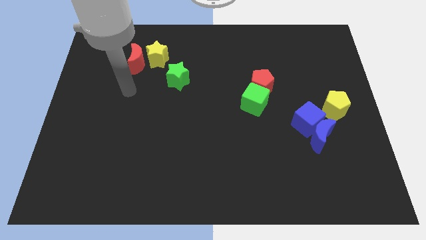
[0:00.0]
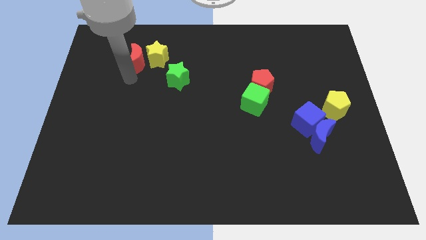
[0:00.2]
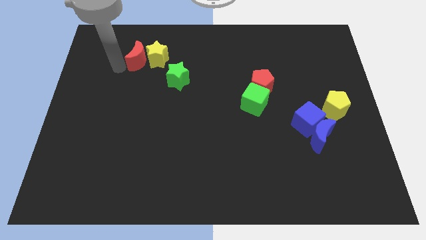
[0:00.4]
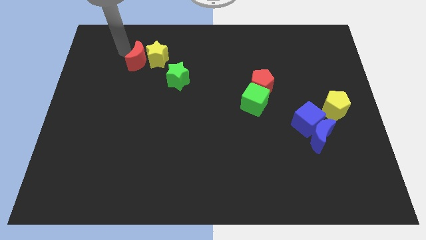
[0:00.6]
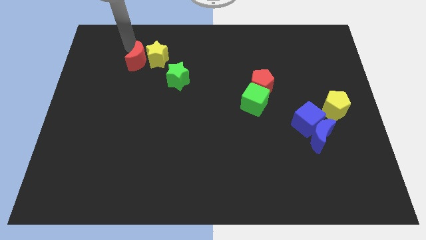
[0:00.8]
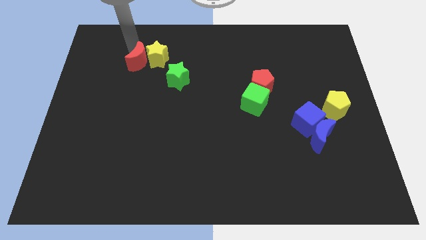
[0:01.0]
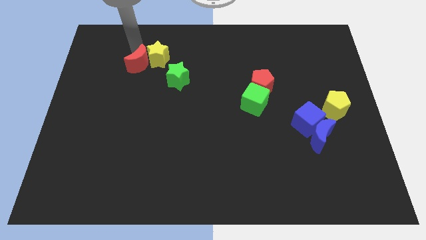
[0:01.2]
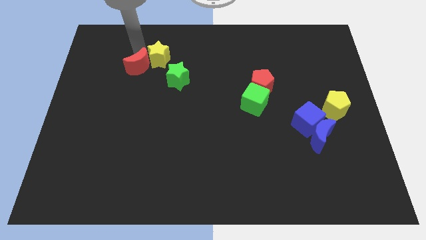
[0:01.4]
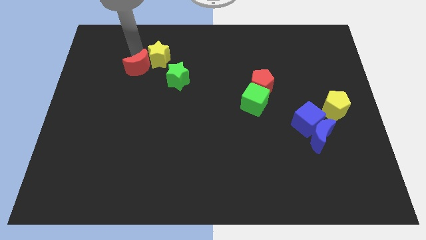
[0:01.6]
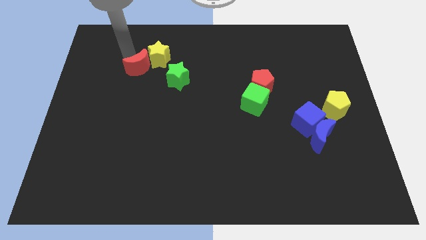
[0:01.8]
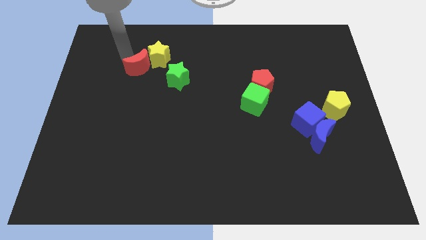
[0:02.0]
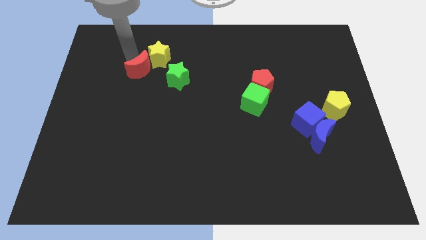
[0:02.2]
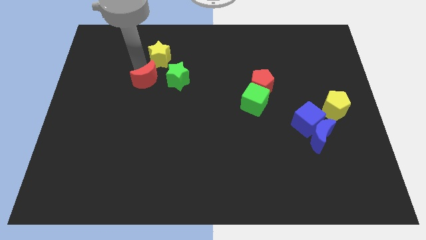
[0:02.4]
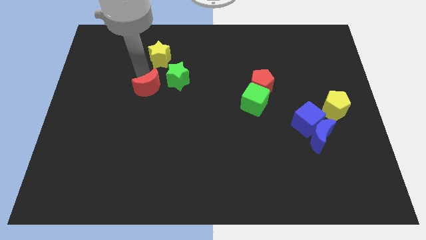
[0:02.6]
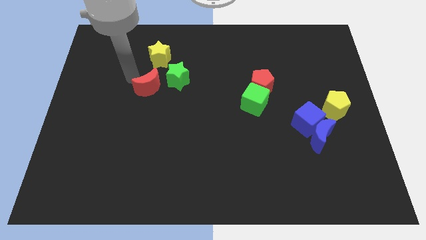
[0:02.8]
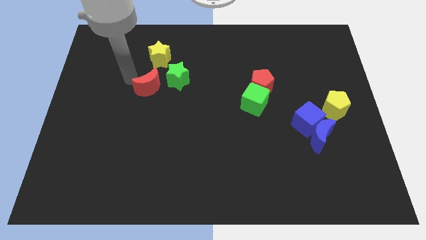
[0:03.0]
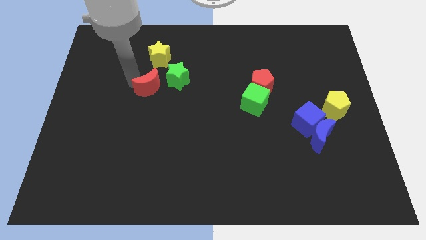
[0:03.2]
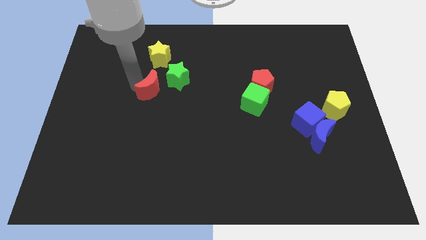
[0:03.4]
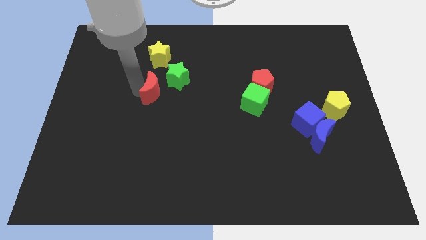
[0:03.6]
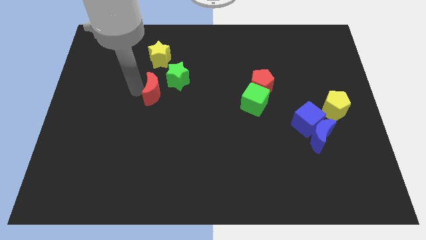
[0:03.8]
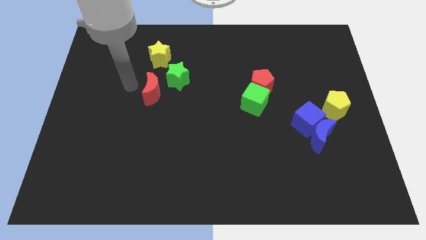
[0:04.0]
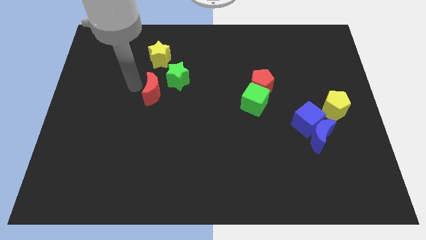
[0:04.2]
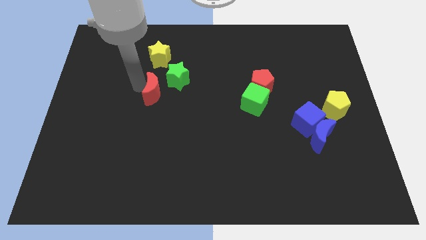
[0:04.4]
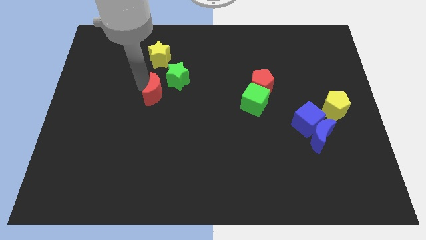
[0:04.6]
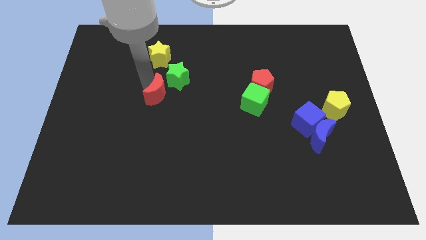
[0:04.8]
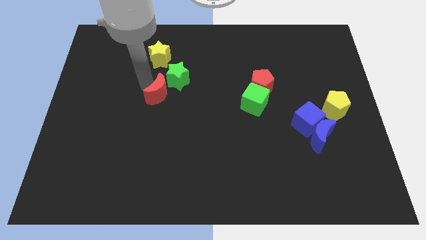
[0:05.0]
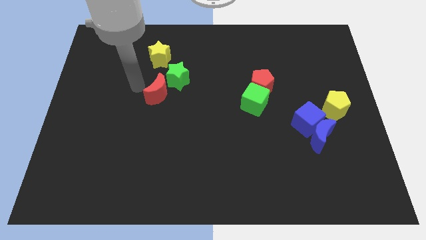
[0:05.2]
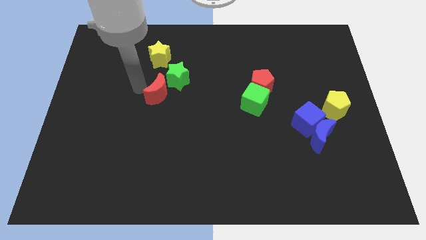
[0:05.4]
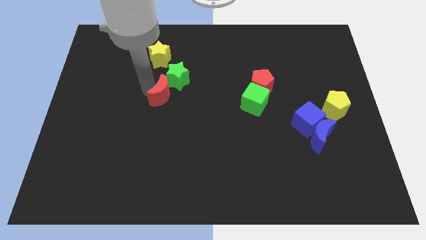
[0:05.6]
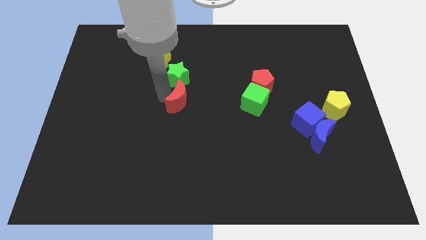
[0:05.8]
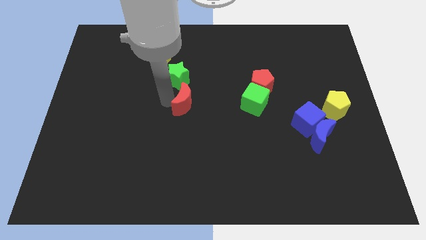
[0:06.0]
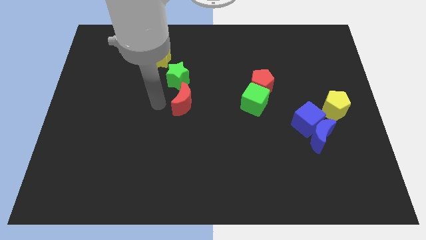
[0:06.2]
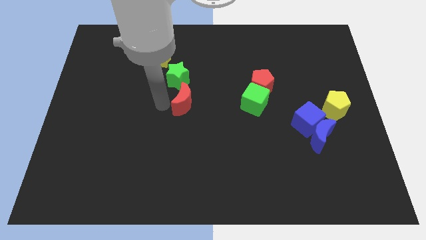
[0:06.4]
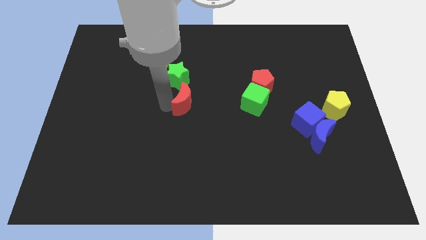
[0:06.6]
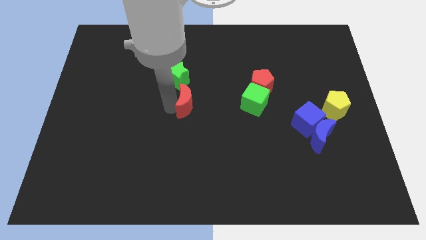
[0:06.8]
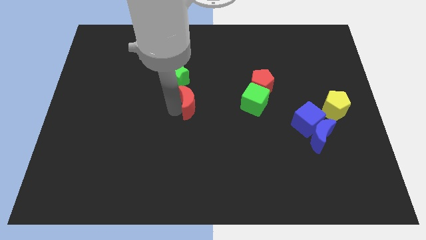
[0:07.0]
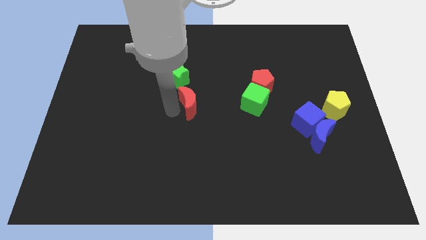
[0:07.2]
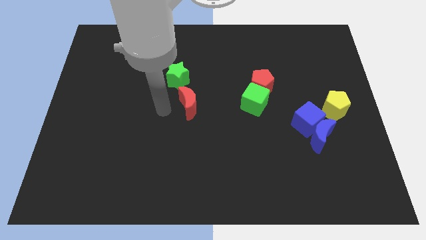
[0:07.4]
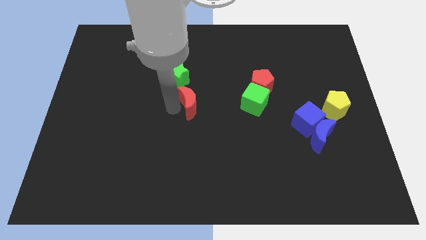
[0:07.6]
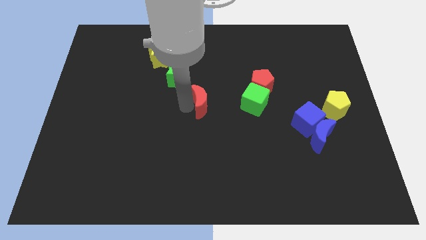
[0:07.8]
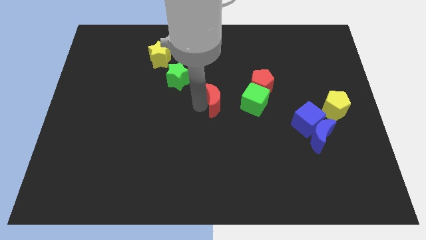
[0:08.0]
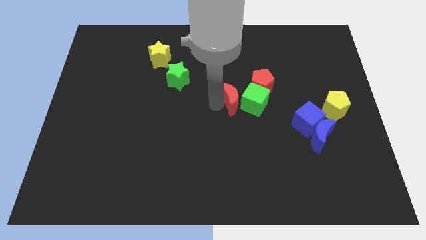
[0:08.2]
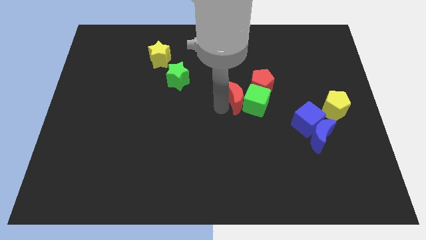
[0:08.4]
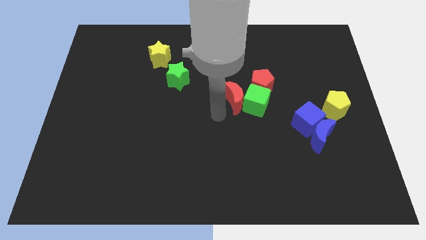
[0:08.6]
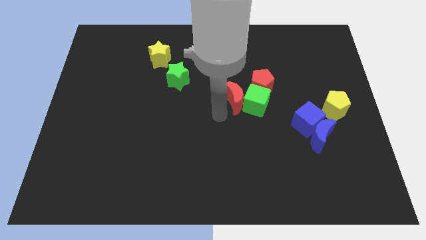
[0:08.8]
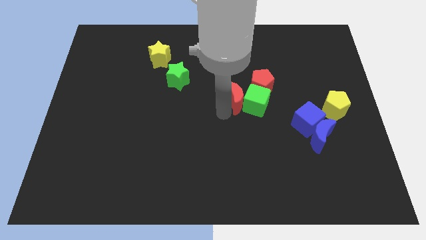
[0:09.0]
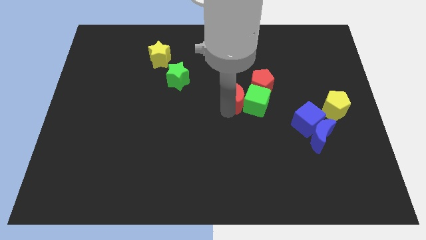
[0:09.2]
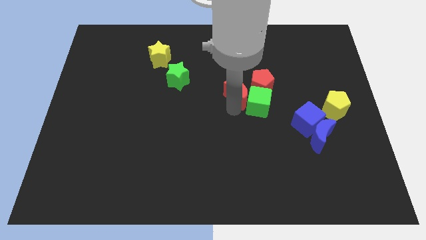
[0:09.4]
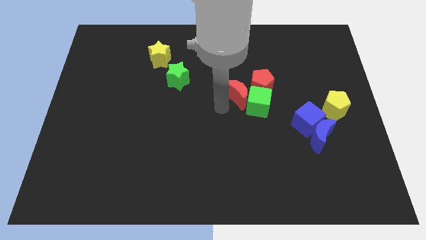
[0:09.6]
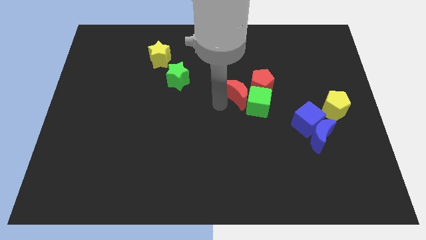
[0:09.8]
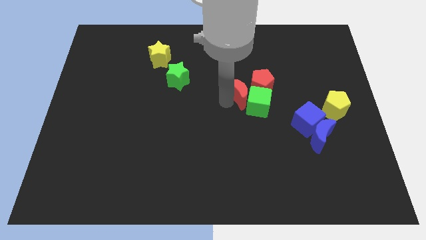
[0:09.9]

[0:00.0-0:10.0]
push the red moon towards the red pentagon

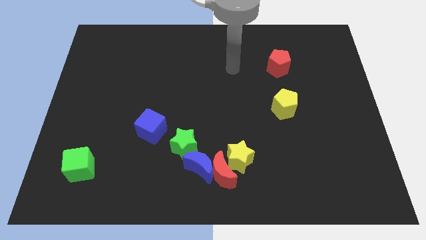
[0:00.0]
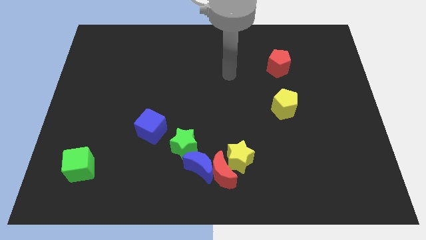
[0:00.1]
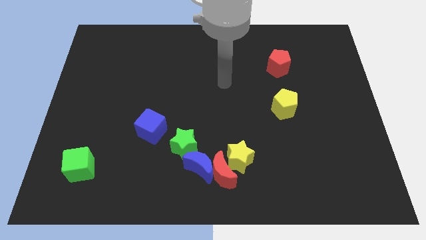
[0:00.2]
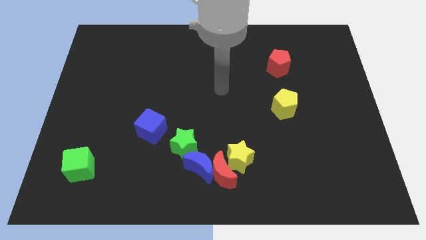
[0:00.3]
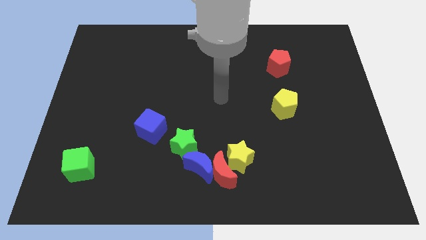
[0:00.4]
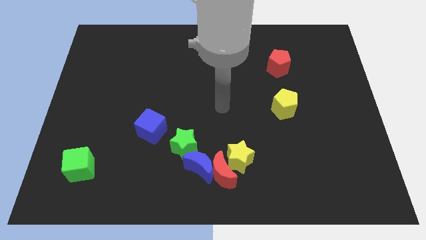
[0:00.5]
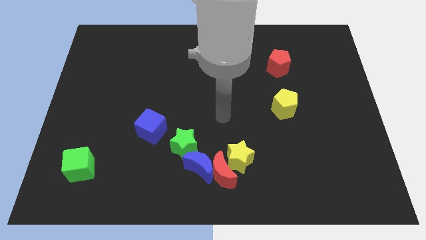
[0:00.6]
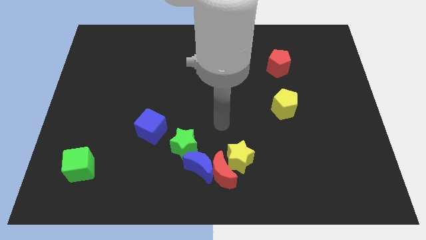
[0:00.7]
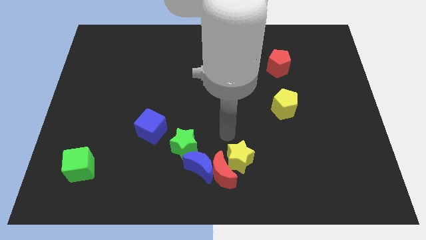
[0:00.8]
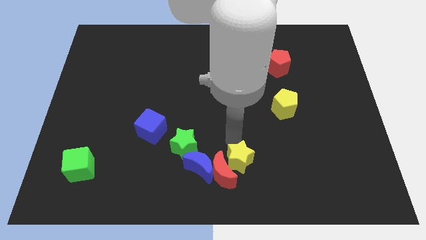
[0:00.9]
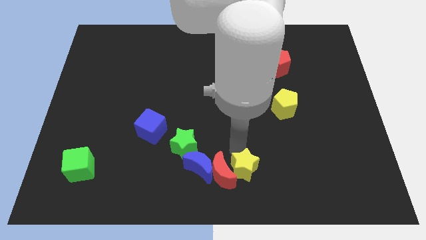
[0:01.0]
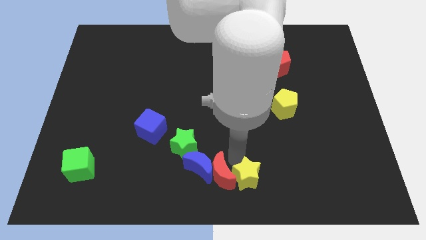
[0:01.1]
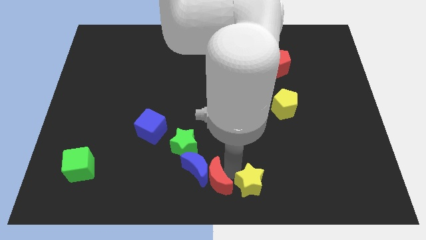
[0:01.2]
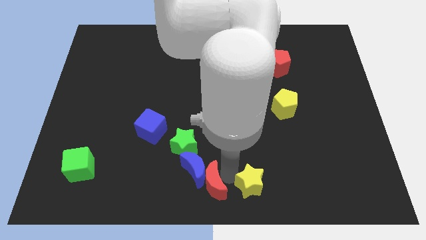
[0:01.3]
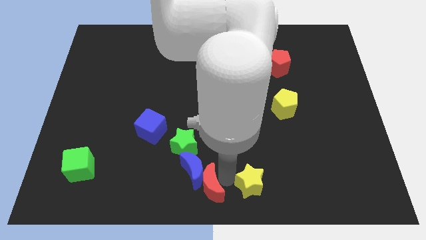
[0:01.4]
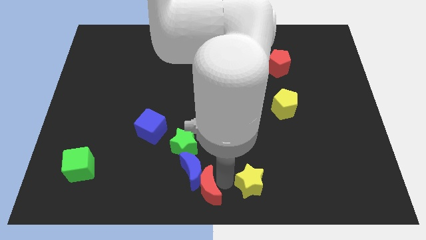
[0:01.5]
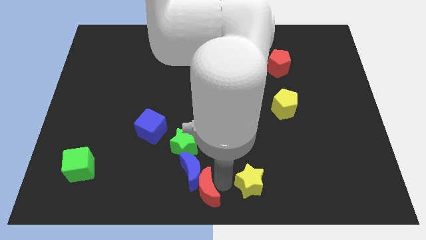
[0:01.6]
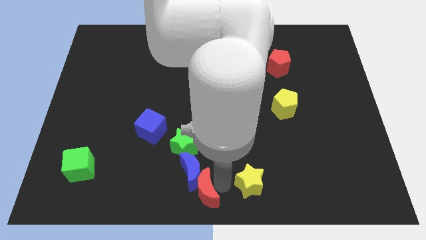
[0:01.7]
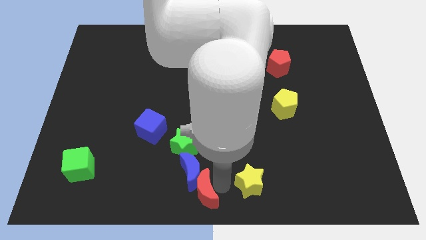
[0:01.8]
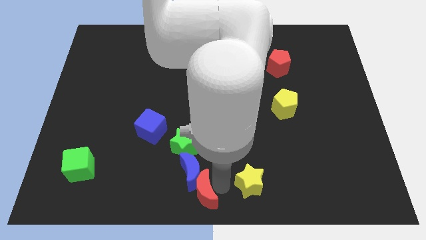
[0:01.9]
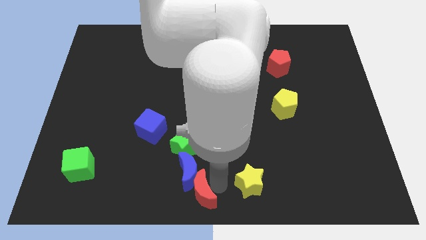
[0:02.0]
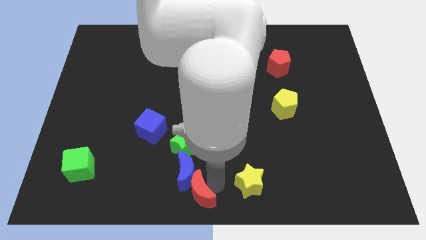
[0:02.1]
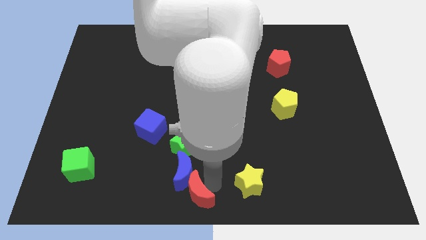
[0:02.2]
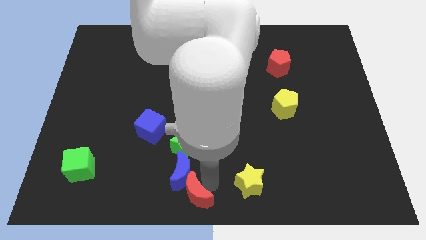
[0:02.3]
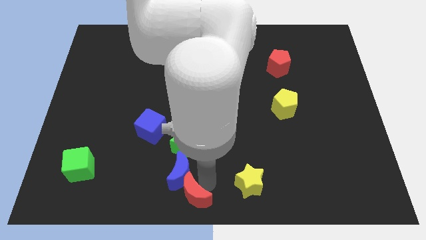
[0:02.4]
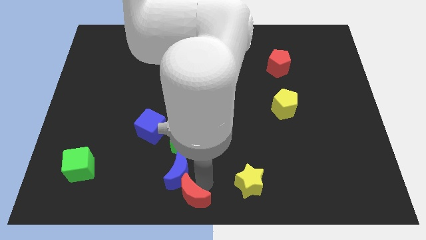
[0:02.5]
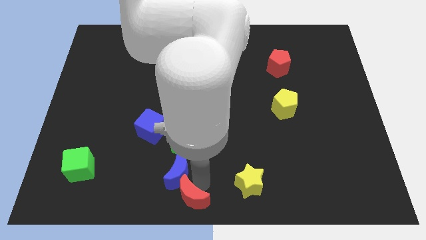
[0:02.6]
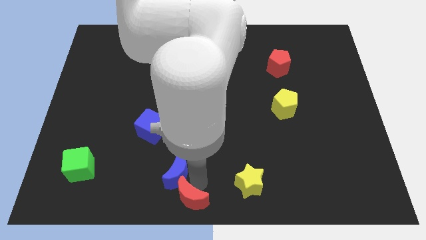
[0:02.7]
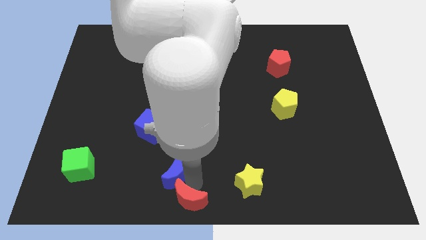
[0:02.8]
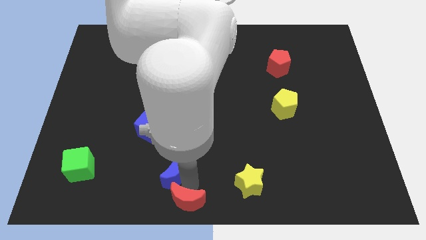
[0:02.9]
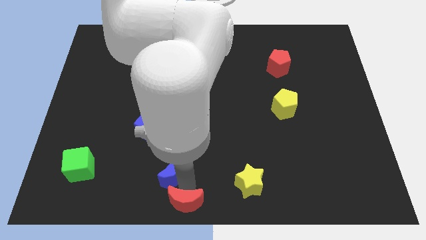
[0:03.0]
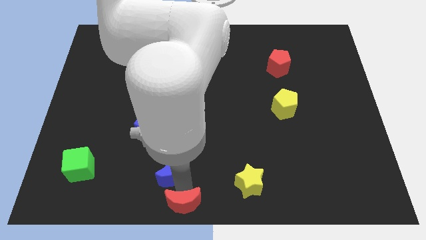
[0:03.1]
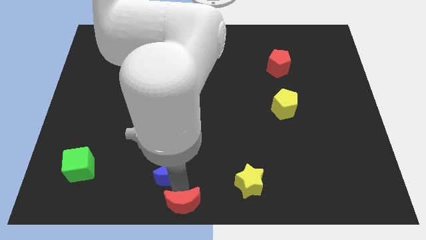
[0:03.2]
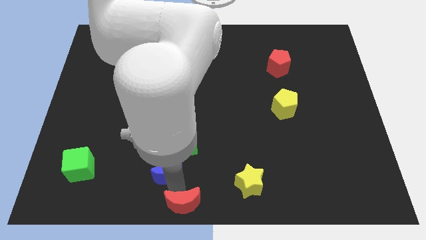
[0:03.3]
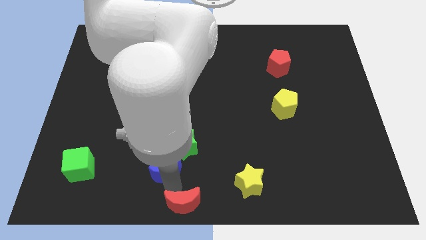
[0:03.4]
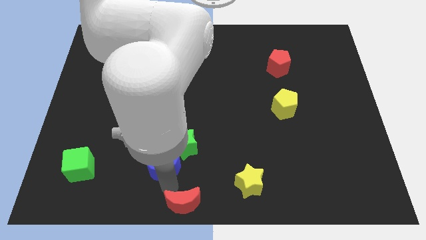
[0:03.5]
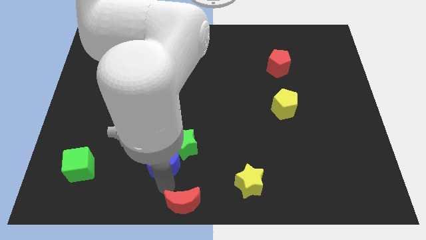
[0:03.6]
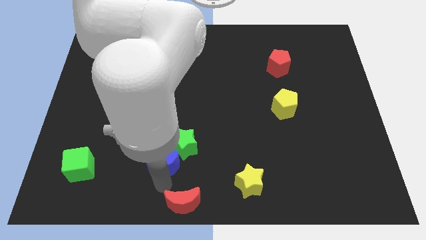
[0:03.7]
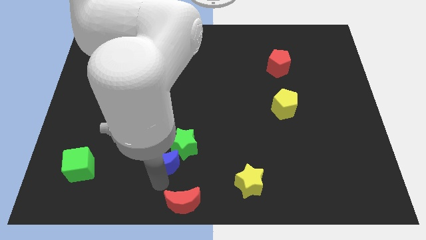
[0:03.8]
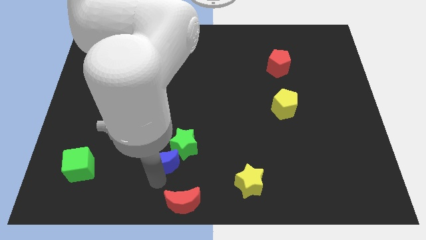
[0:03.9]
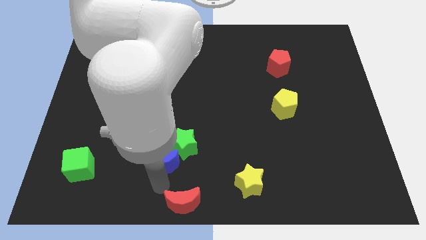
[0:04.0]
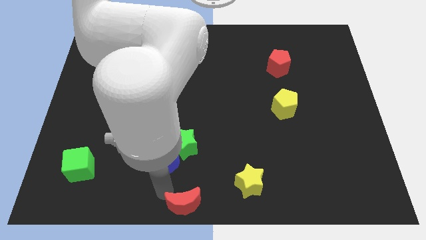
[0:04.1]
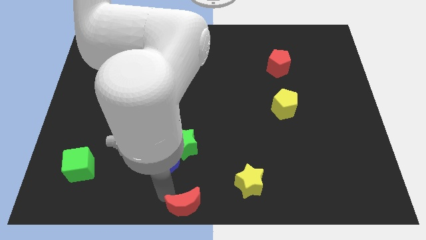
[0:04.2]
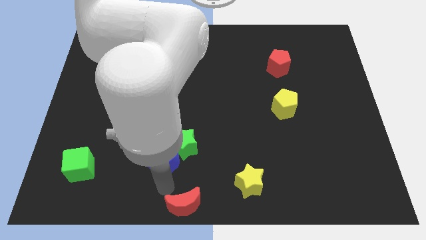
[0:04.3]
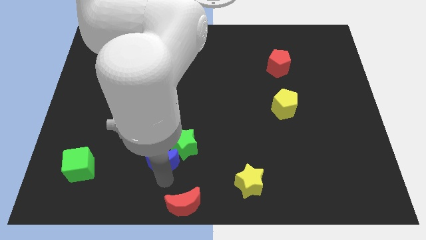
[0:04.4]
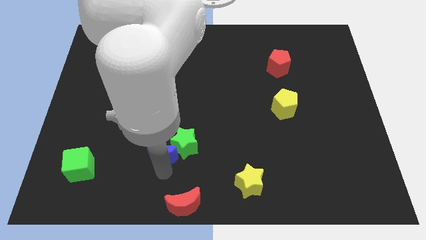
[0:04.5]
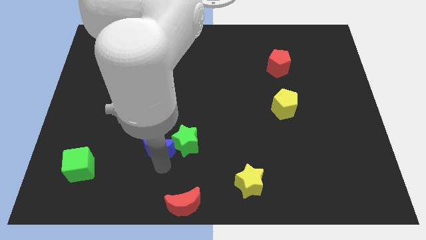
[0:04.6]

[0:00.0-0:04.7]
put the blue moon next to the blue cube
